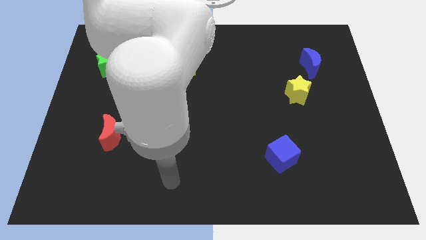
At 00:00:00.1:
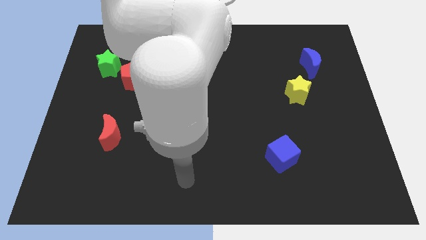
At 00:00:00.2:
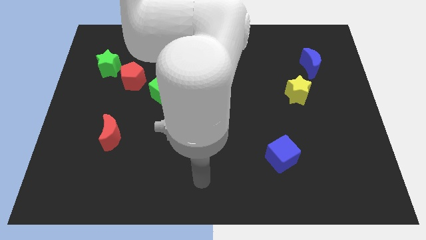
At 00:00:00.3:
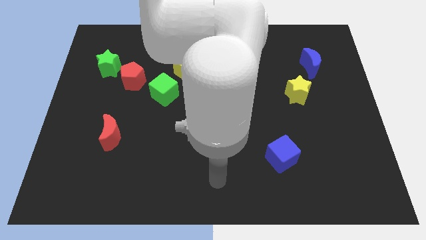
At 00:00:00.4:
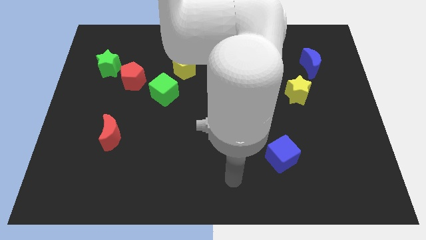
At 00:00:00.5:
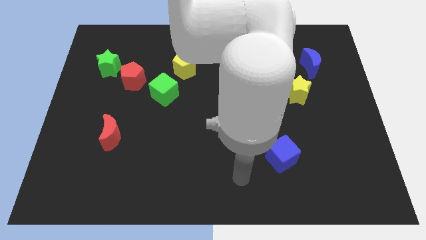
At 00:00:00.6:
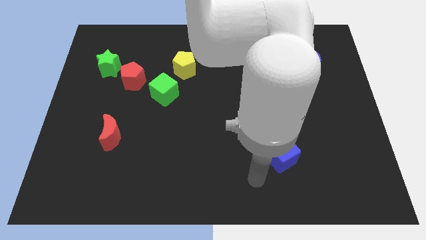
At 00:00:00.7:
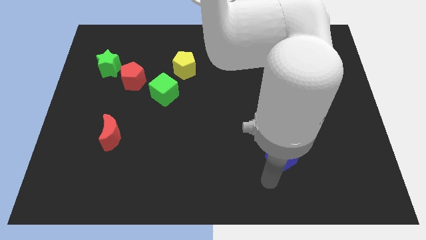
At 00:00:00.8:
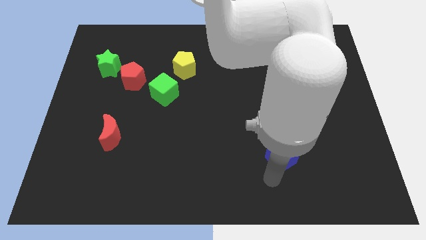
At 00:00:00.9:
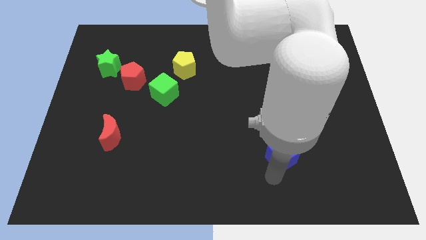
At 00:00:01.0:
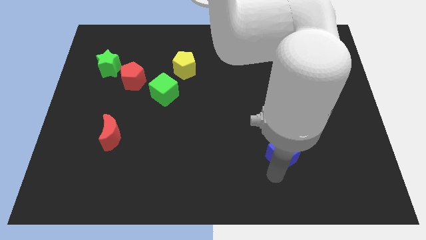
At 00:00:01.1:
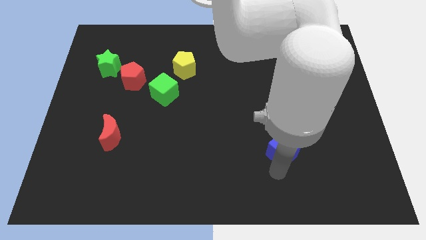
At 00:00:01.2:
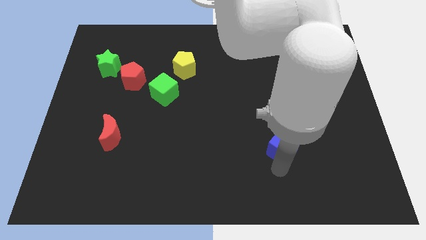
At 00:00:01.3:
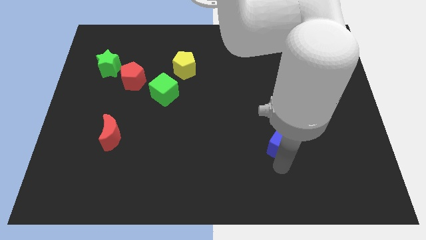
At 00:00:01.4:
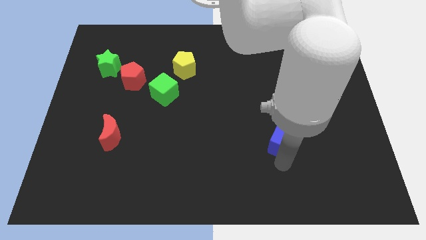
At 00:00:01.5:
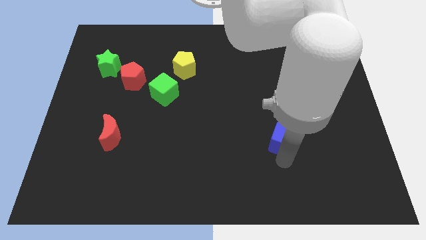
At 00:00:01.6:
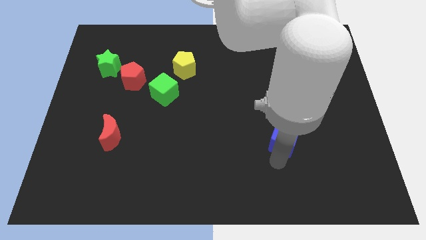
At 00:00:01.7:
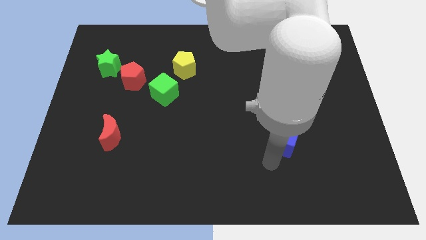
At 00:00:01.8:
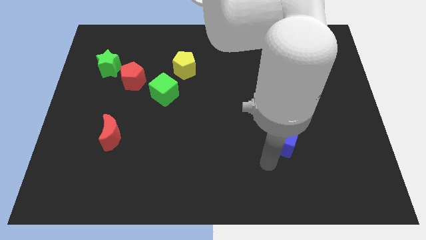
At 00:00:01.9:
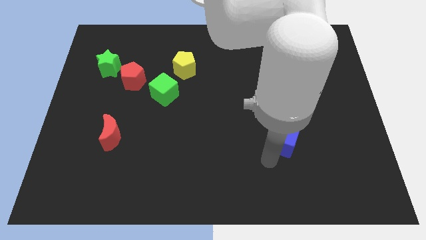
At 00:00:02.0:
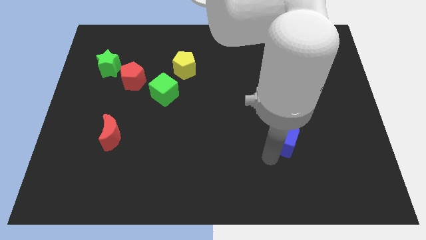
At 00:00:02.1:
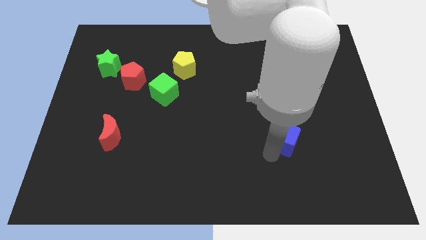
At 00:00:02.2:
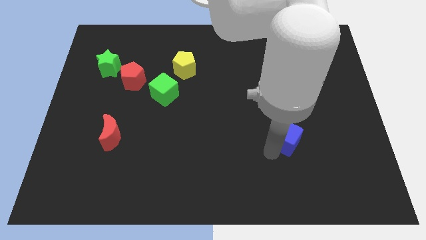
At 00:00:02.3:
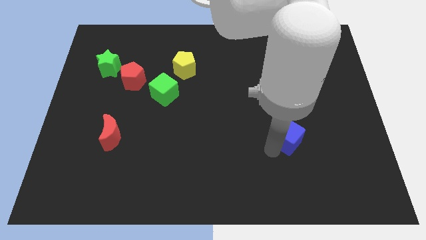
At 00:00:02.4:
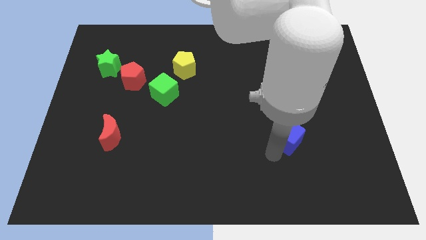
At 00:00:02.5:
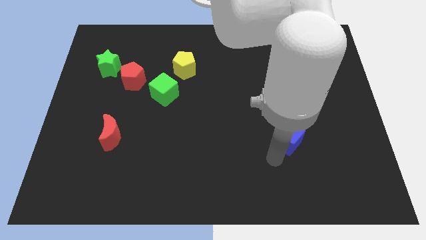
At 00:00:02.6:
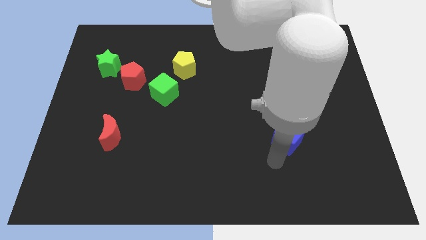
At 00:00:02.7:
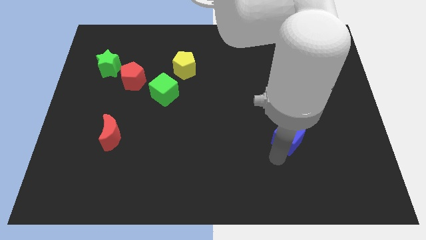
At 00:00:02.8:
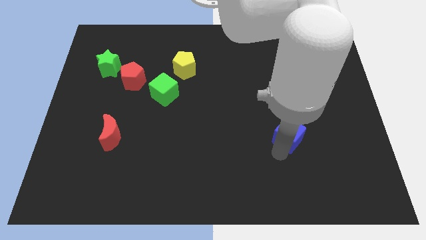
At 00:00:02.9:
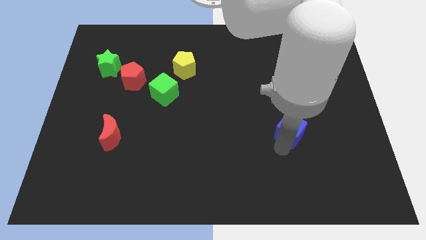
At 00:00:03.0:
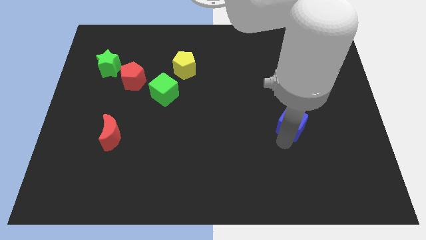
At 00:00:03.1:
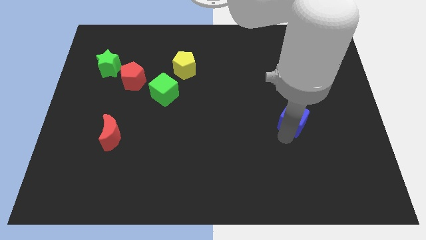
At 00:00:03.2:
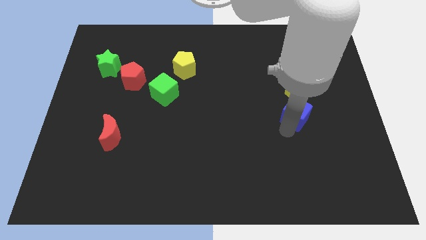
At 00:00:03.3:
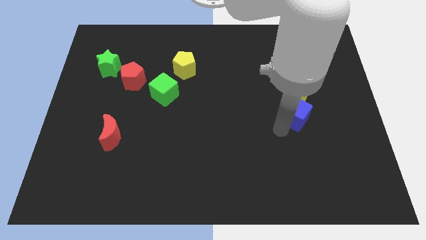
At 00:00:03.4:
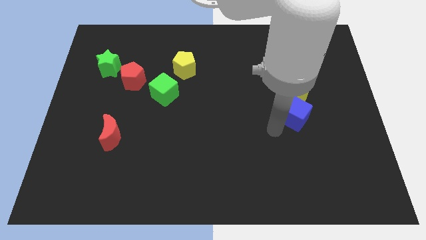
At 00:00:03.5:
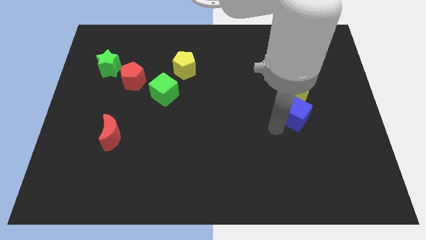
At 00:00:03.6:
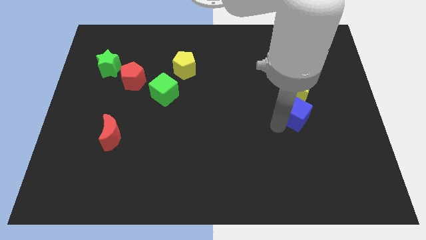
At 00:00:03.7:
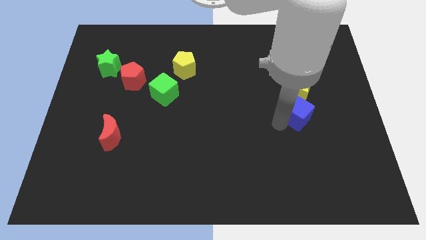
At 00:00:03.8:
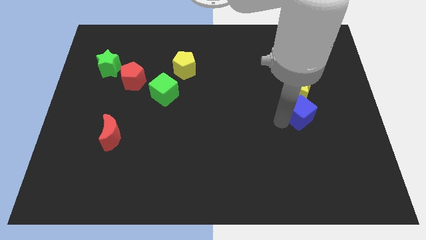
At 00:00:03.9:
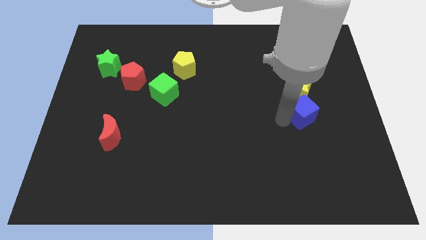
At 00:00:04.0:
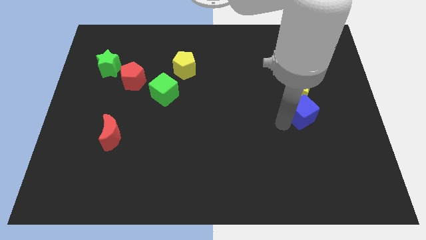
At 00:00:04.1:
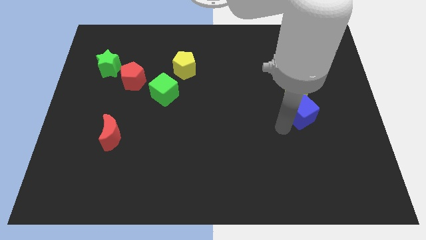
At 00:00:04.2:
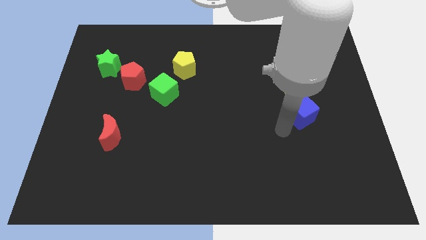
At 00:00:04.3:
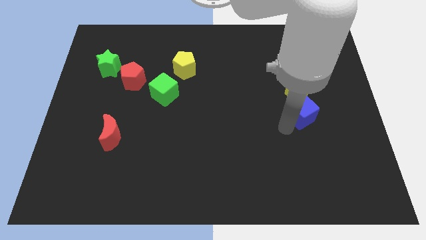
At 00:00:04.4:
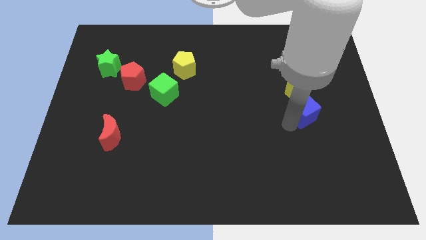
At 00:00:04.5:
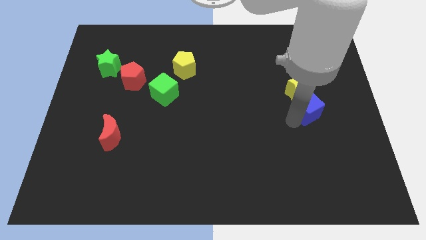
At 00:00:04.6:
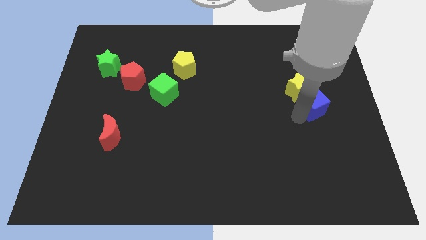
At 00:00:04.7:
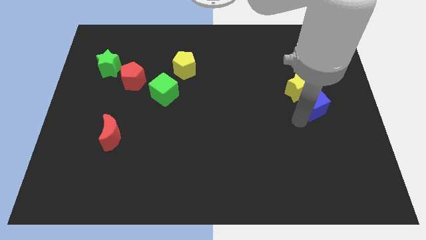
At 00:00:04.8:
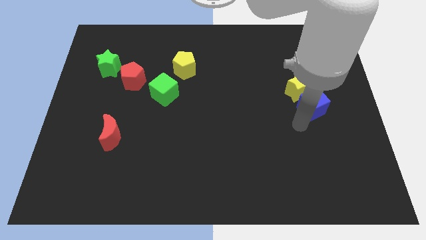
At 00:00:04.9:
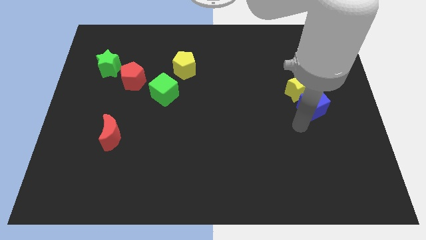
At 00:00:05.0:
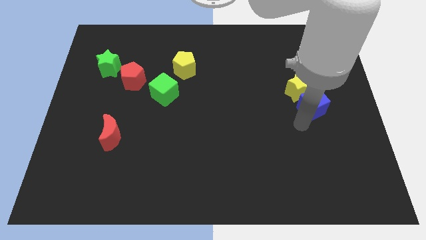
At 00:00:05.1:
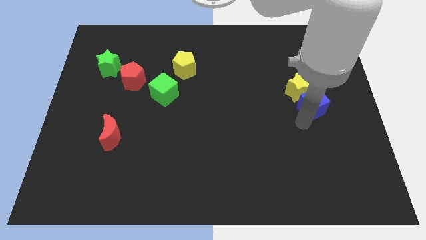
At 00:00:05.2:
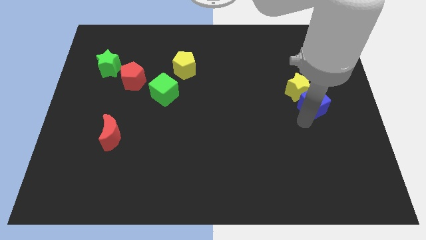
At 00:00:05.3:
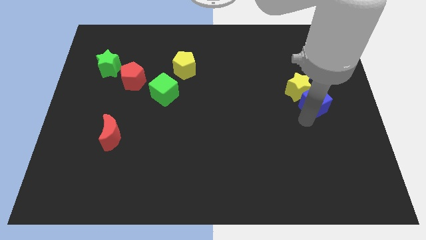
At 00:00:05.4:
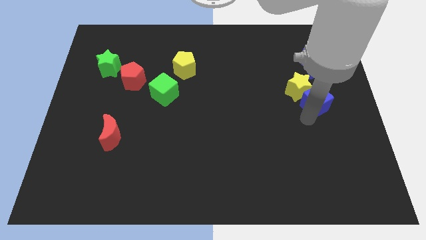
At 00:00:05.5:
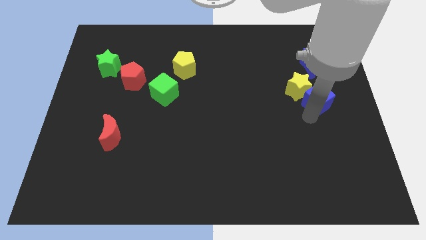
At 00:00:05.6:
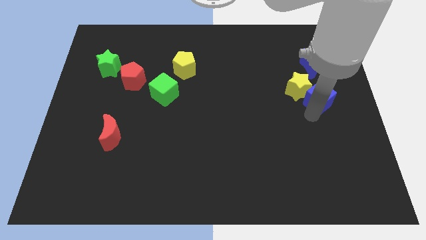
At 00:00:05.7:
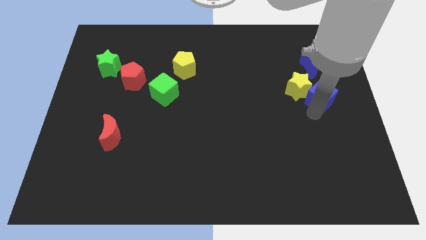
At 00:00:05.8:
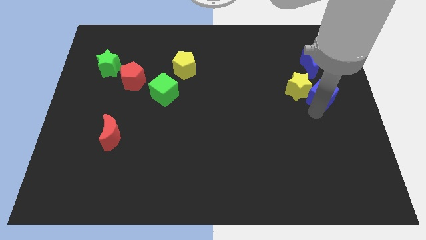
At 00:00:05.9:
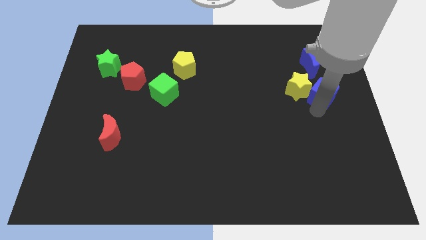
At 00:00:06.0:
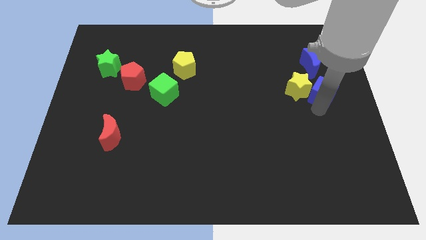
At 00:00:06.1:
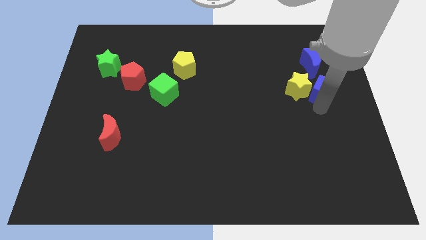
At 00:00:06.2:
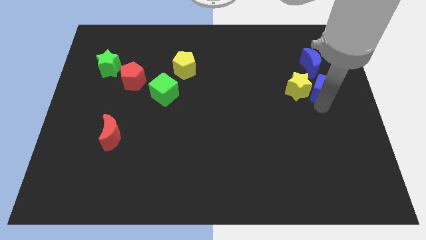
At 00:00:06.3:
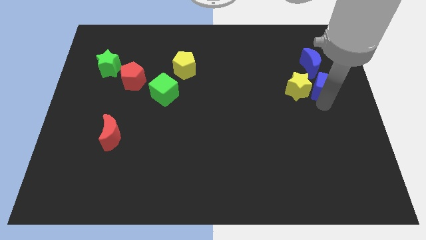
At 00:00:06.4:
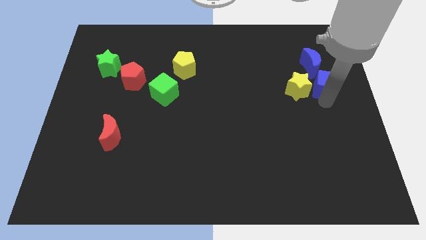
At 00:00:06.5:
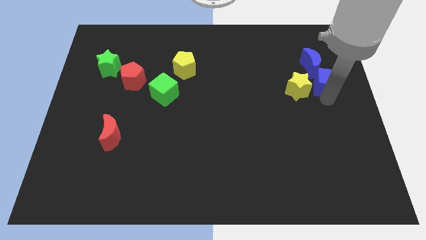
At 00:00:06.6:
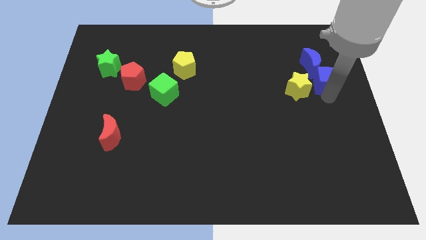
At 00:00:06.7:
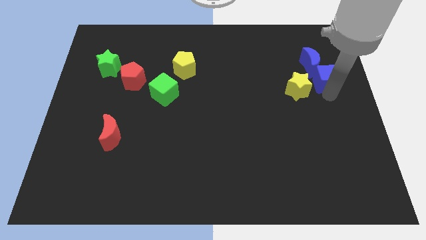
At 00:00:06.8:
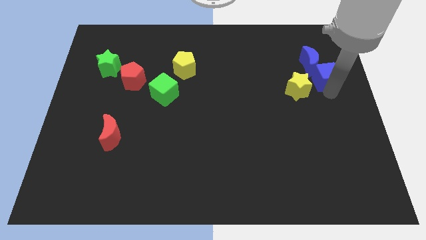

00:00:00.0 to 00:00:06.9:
slide the blue cube to the blue moon

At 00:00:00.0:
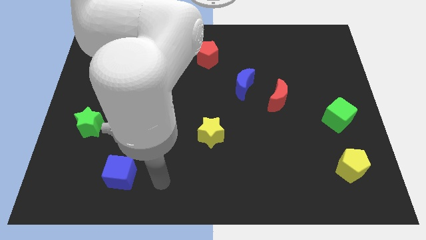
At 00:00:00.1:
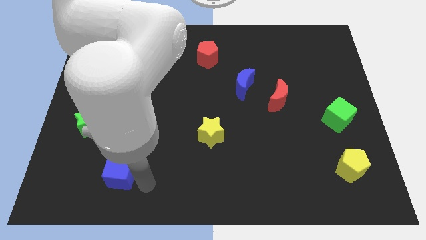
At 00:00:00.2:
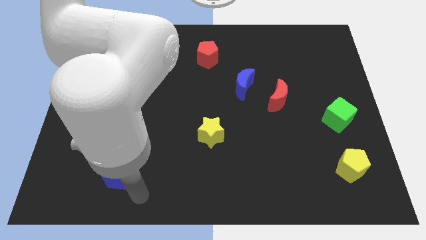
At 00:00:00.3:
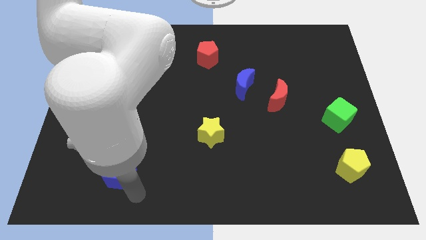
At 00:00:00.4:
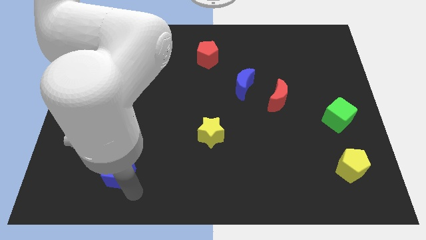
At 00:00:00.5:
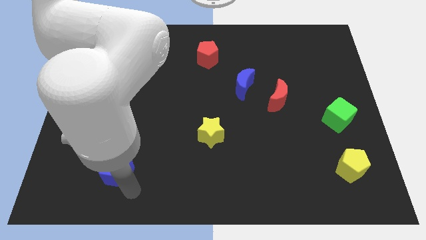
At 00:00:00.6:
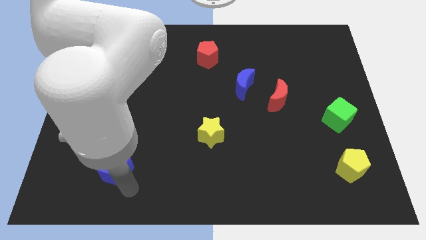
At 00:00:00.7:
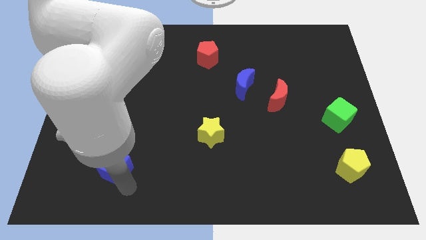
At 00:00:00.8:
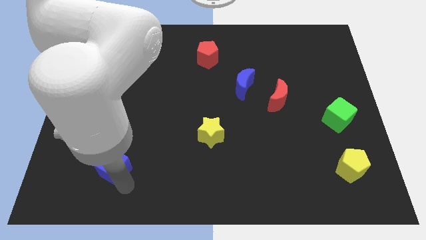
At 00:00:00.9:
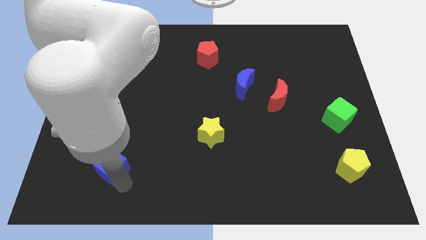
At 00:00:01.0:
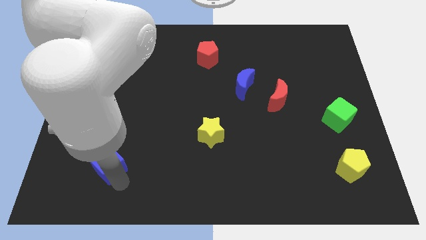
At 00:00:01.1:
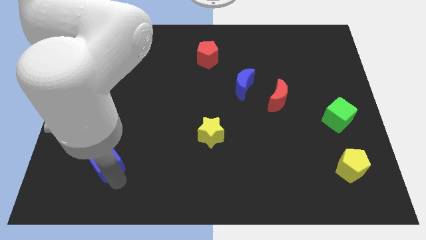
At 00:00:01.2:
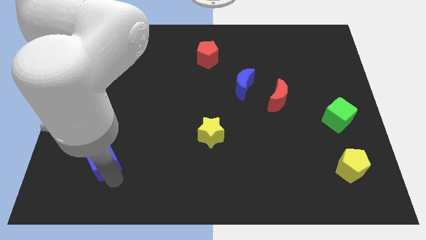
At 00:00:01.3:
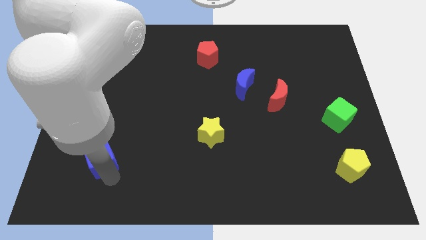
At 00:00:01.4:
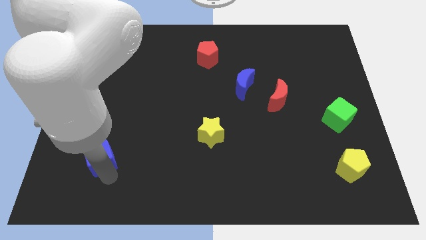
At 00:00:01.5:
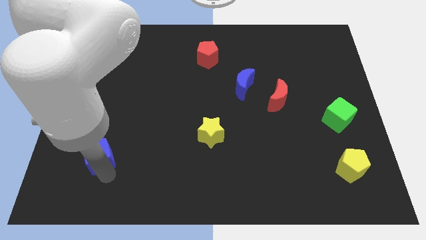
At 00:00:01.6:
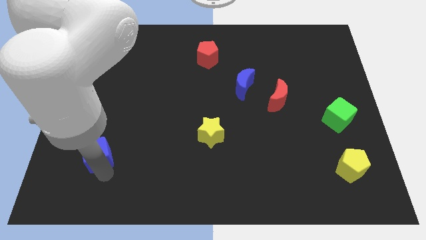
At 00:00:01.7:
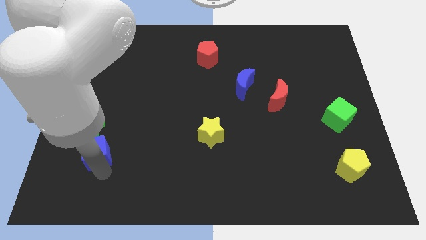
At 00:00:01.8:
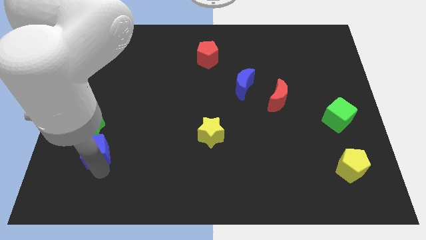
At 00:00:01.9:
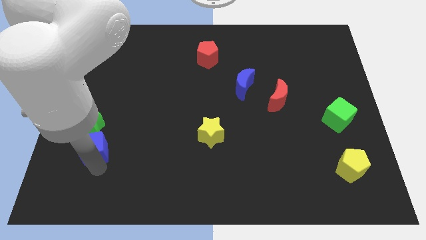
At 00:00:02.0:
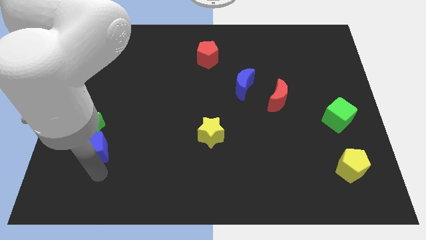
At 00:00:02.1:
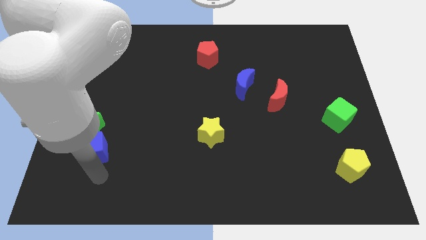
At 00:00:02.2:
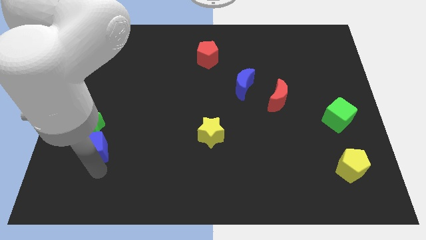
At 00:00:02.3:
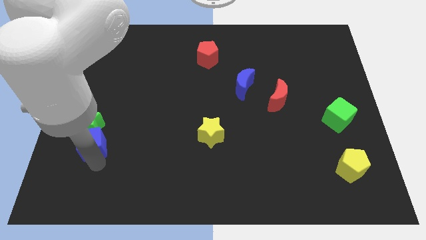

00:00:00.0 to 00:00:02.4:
move the blue cube next to the green star
